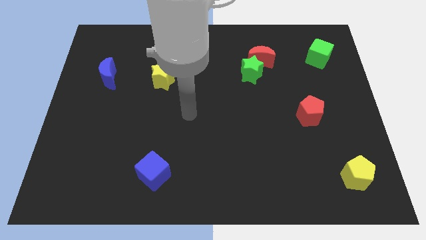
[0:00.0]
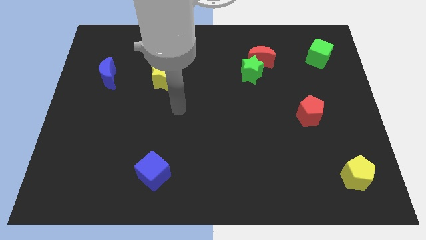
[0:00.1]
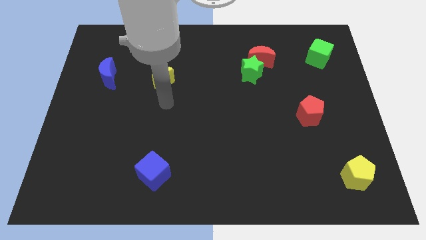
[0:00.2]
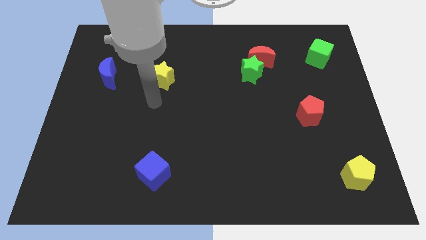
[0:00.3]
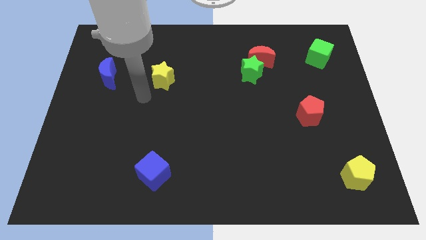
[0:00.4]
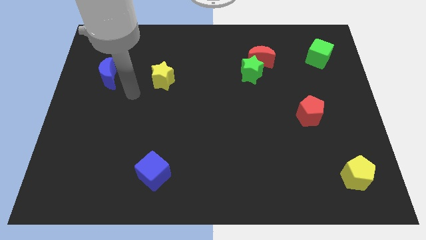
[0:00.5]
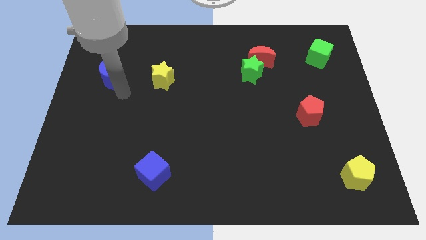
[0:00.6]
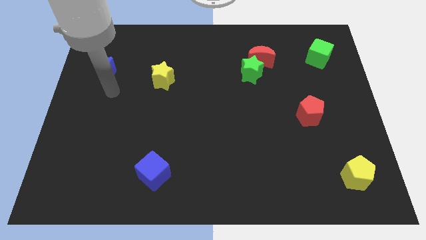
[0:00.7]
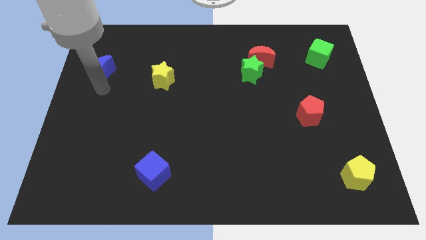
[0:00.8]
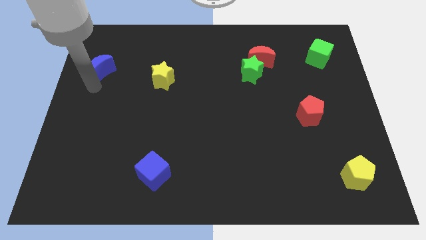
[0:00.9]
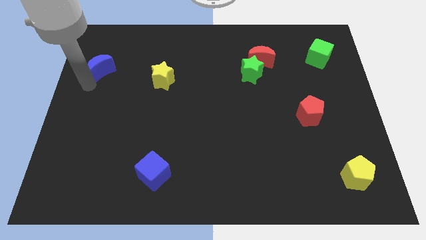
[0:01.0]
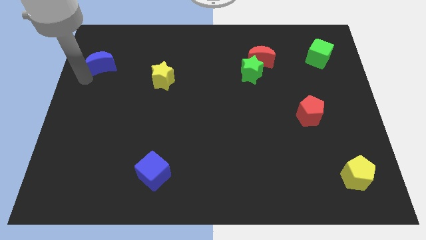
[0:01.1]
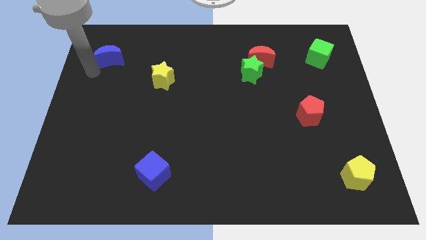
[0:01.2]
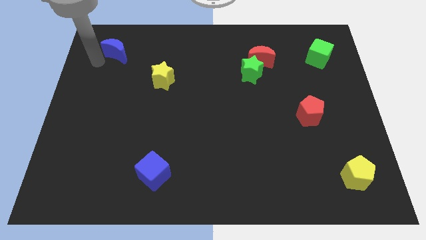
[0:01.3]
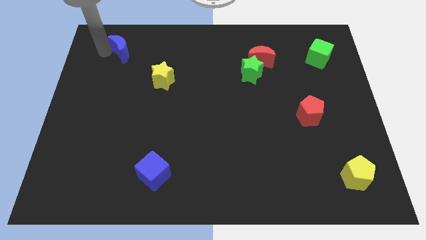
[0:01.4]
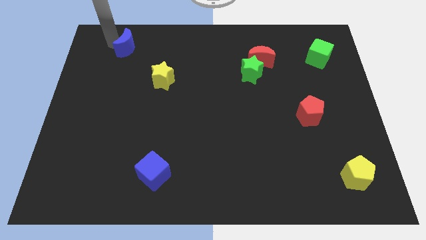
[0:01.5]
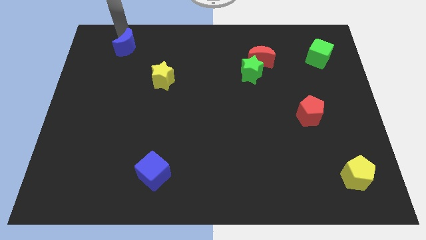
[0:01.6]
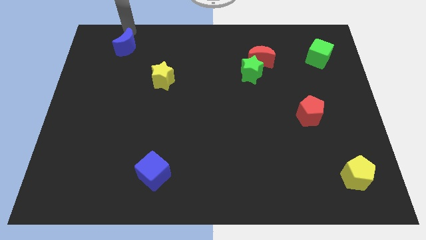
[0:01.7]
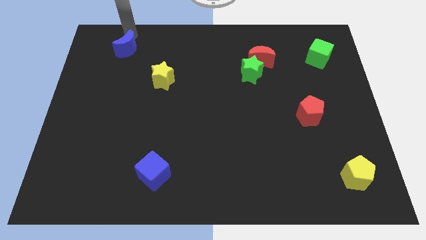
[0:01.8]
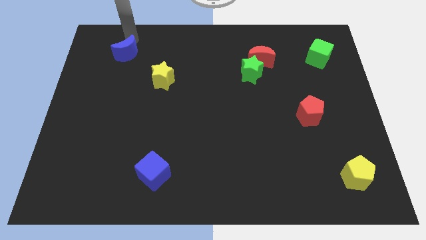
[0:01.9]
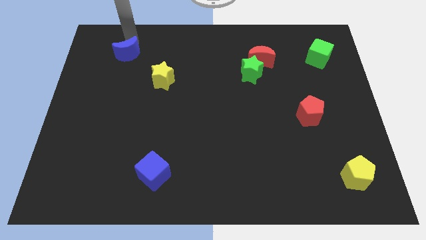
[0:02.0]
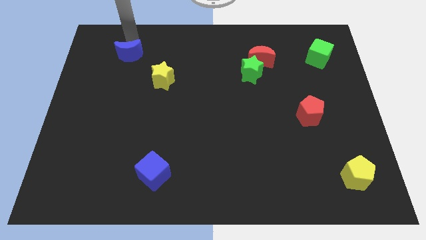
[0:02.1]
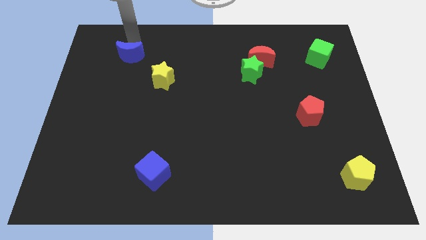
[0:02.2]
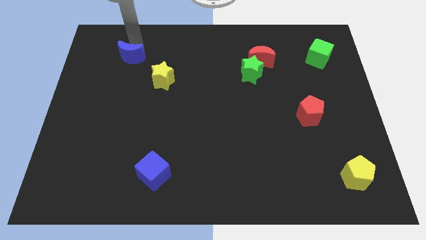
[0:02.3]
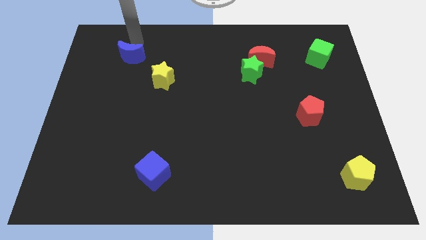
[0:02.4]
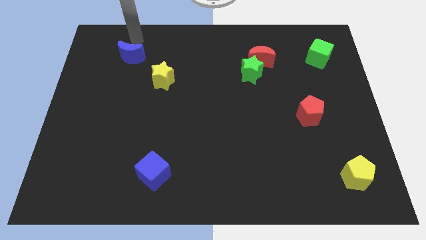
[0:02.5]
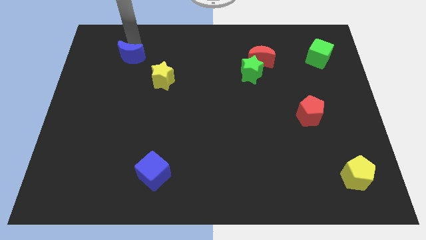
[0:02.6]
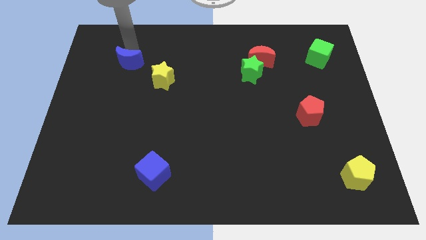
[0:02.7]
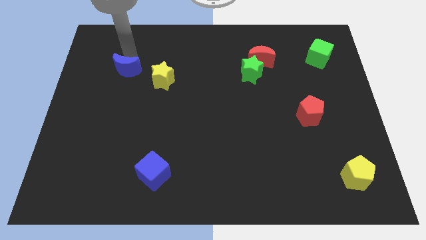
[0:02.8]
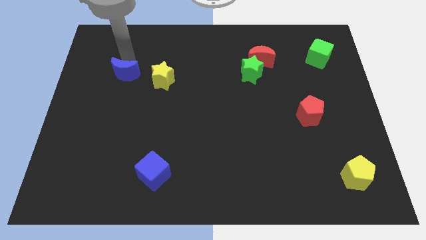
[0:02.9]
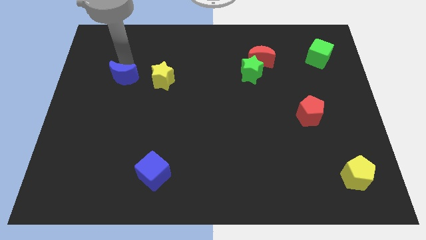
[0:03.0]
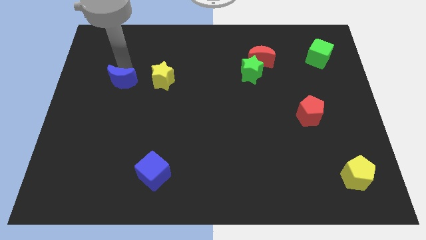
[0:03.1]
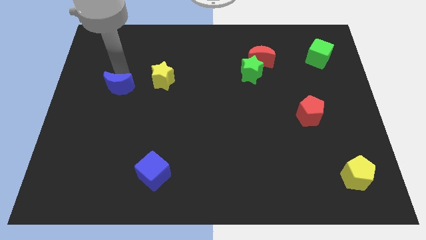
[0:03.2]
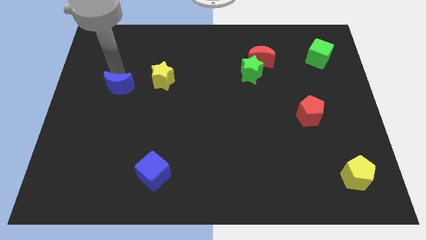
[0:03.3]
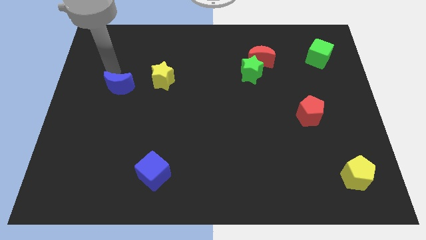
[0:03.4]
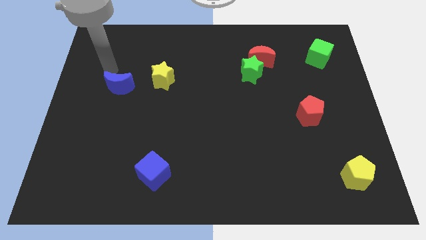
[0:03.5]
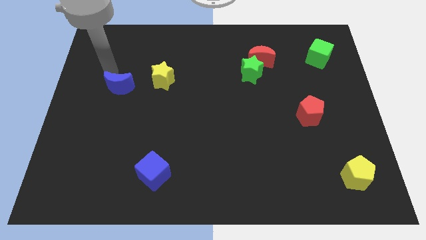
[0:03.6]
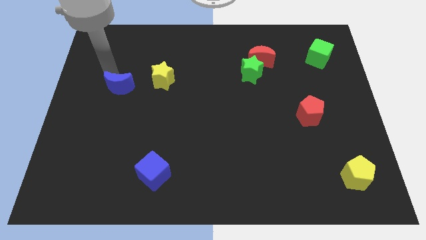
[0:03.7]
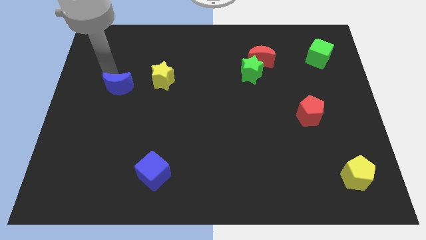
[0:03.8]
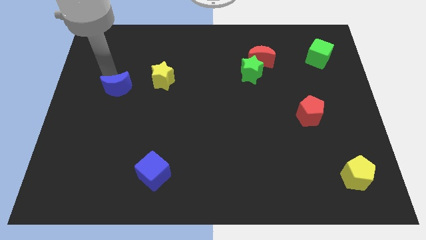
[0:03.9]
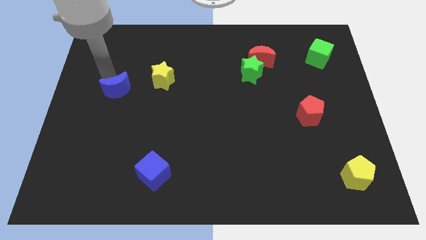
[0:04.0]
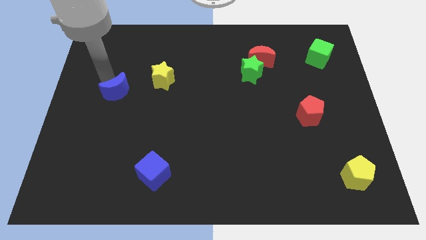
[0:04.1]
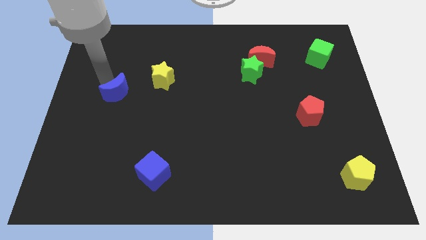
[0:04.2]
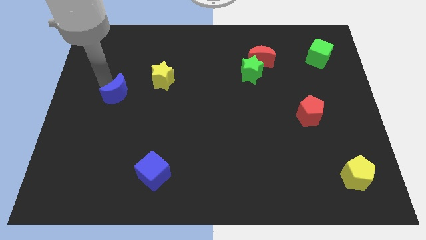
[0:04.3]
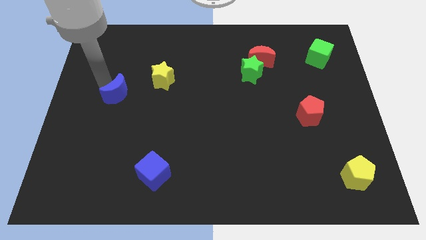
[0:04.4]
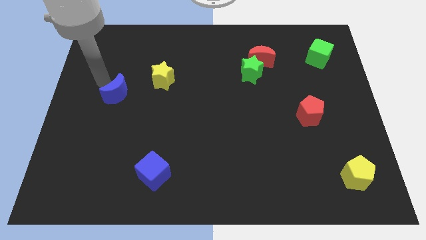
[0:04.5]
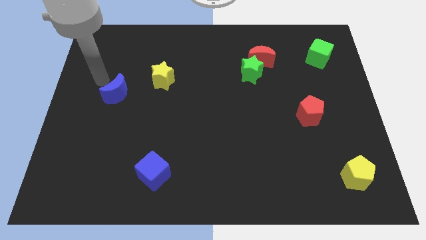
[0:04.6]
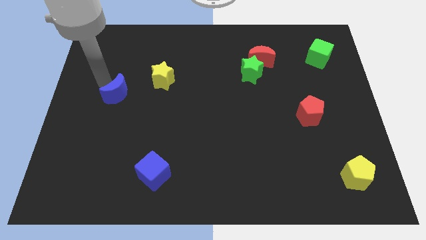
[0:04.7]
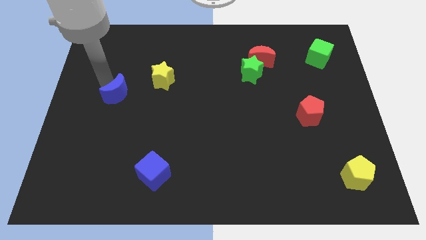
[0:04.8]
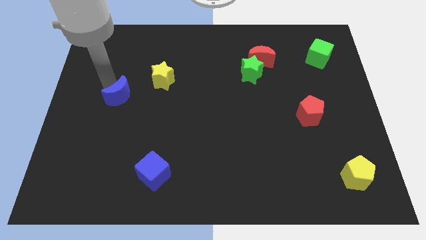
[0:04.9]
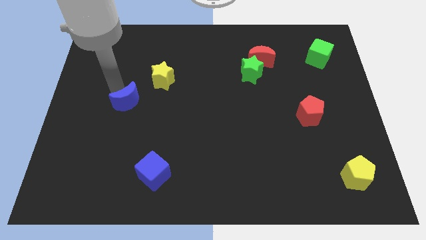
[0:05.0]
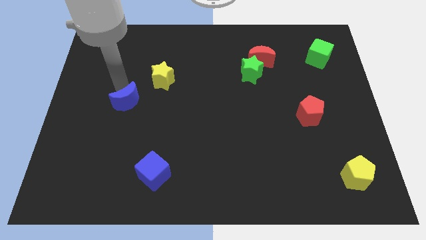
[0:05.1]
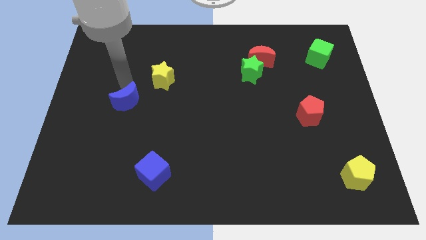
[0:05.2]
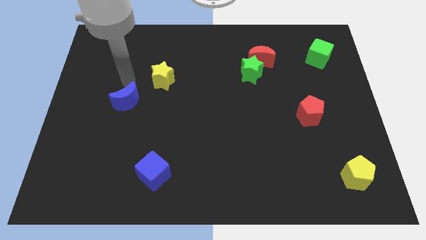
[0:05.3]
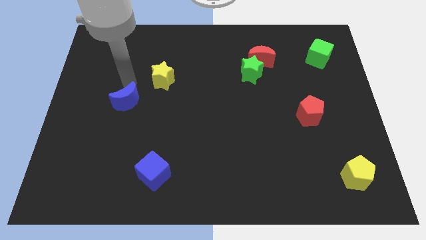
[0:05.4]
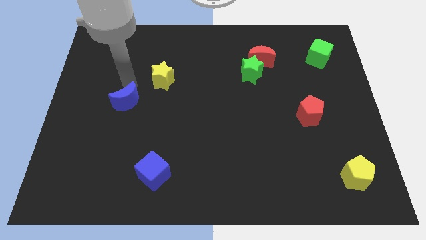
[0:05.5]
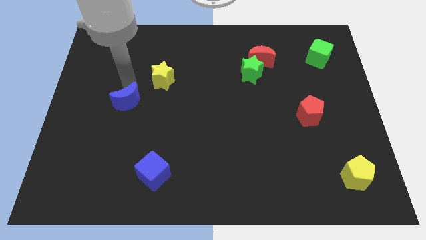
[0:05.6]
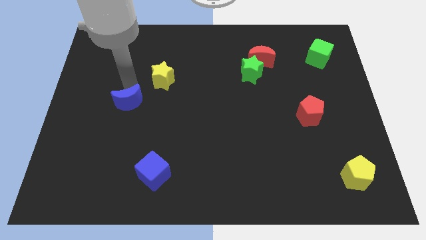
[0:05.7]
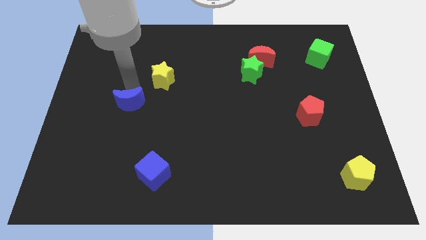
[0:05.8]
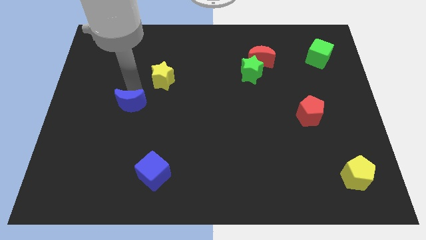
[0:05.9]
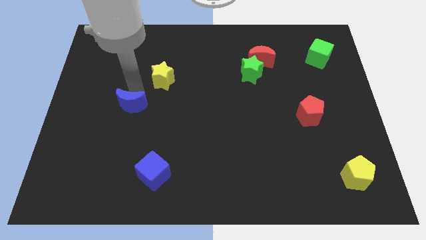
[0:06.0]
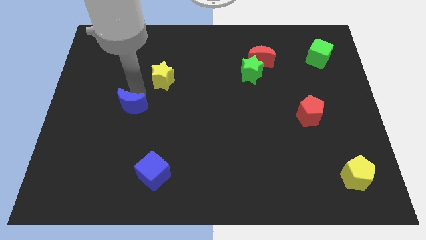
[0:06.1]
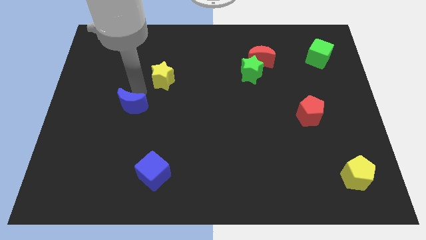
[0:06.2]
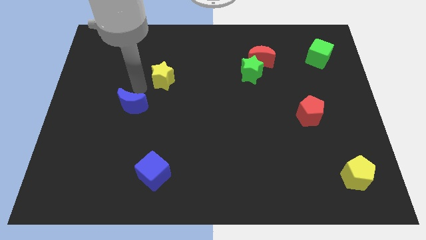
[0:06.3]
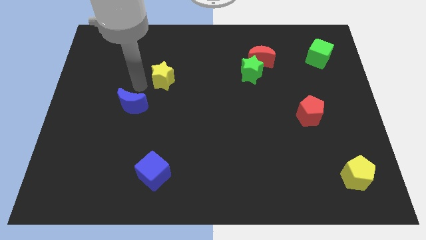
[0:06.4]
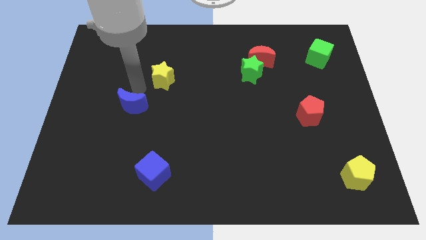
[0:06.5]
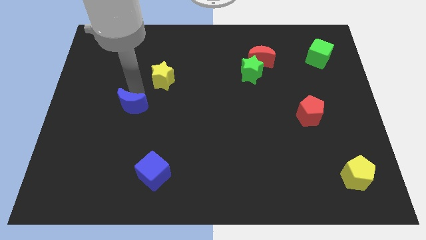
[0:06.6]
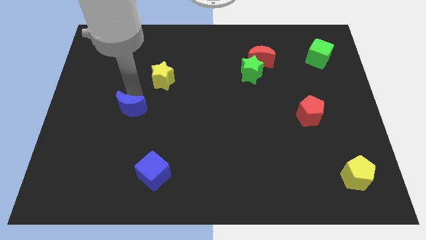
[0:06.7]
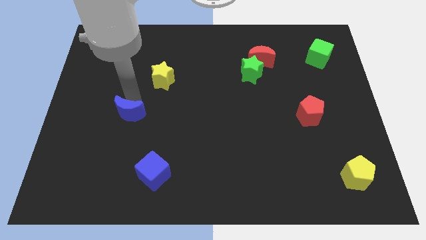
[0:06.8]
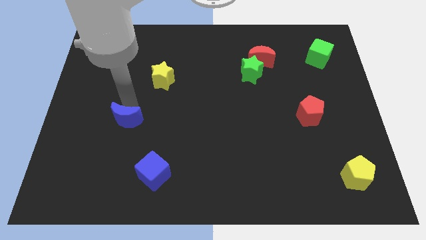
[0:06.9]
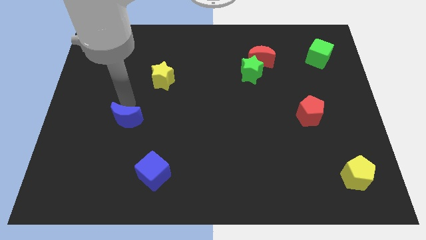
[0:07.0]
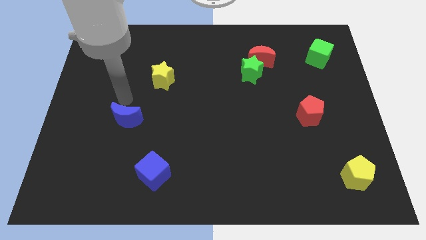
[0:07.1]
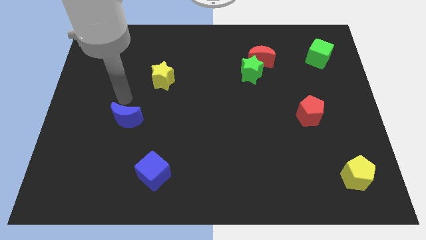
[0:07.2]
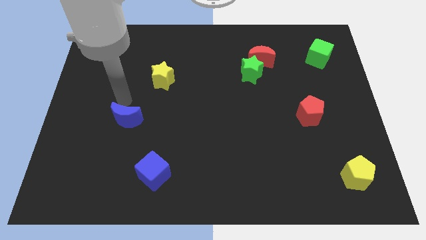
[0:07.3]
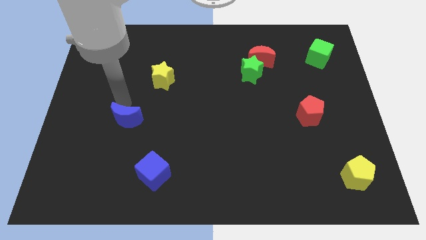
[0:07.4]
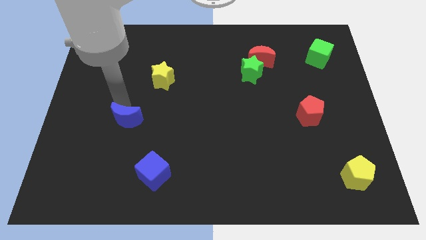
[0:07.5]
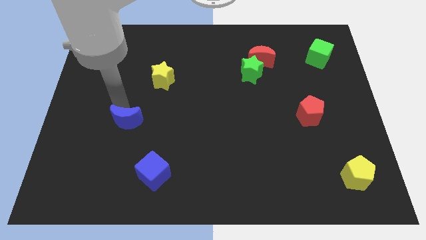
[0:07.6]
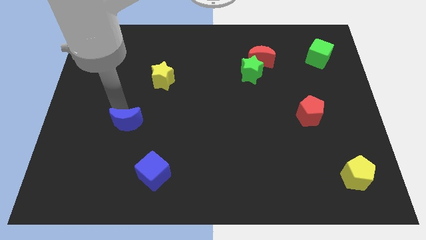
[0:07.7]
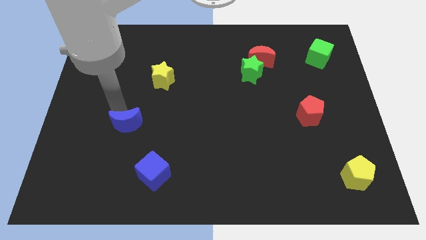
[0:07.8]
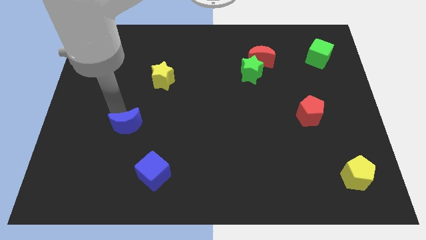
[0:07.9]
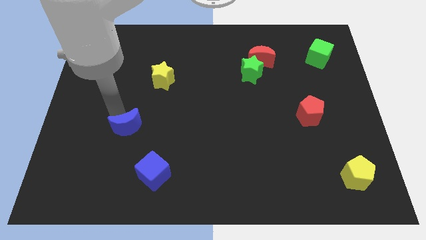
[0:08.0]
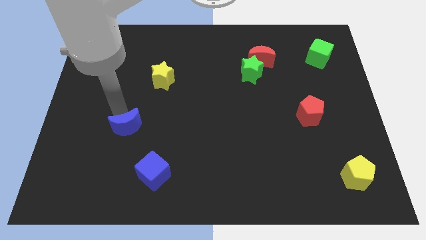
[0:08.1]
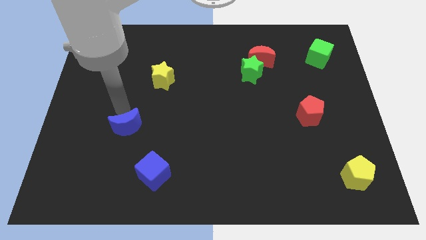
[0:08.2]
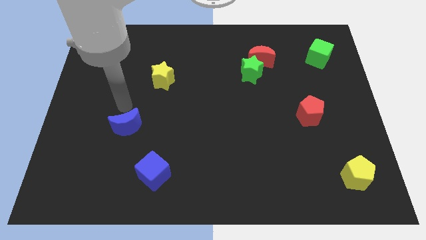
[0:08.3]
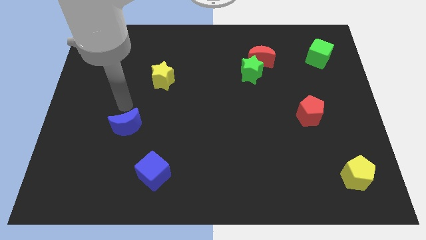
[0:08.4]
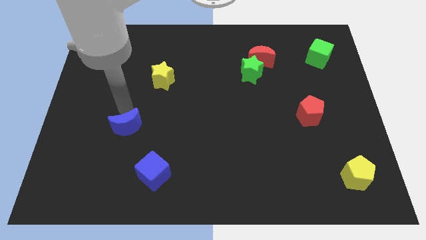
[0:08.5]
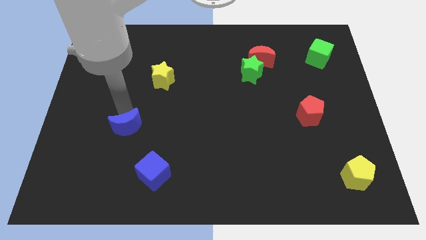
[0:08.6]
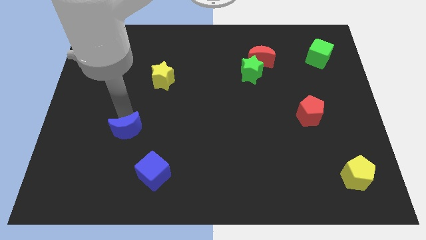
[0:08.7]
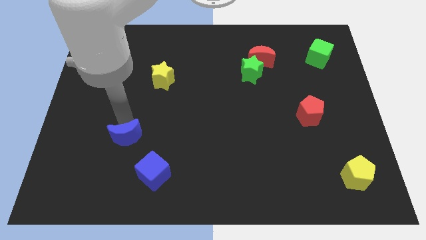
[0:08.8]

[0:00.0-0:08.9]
move the blue moon to the top left of the blue cube
